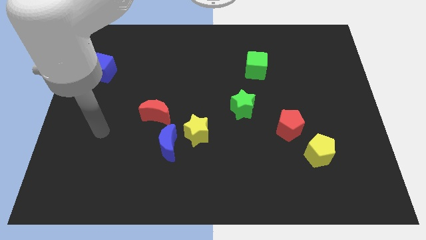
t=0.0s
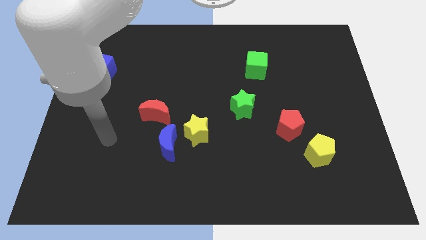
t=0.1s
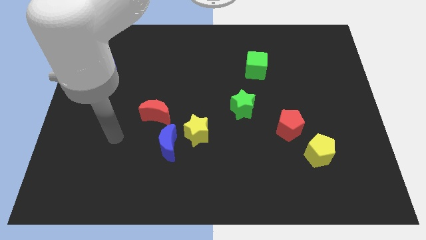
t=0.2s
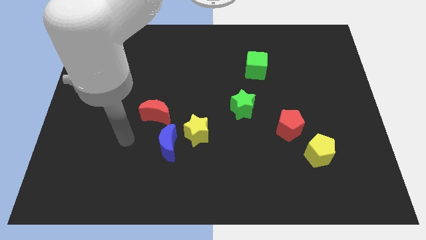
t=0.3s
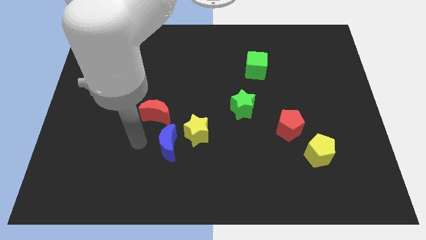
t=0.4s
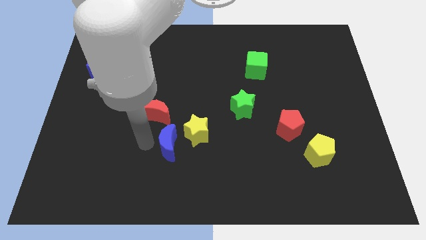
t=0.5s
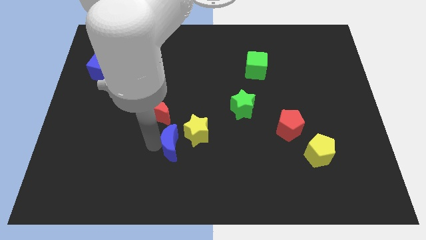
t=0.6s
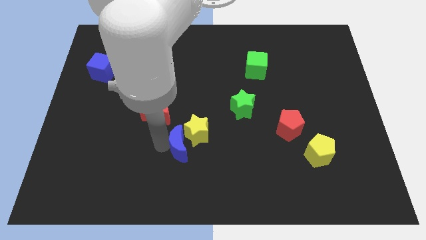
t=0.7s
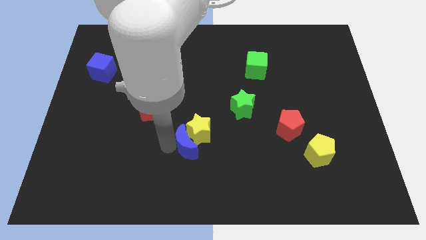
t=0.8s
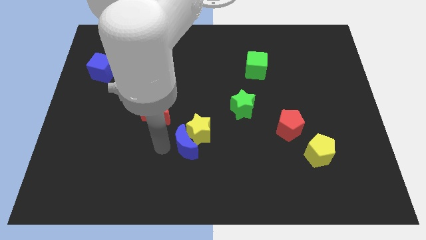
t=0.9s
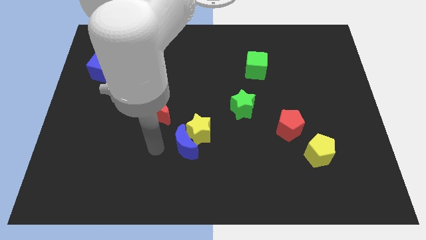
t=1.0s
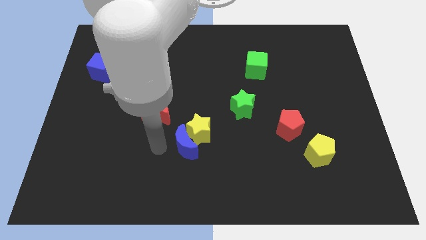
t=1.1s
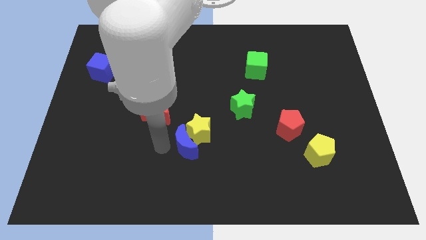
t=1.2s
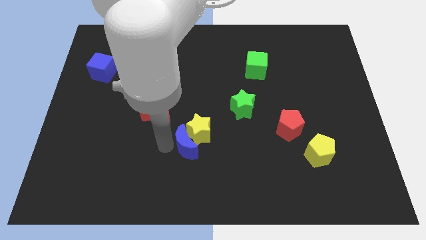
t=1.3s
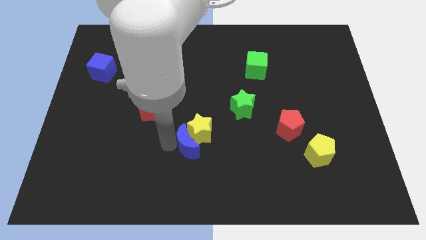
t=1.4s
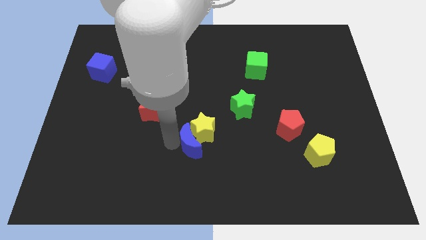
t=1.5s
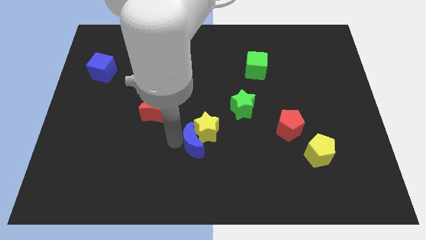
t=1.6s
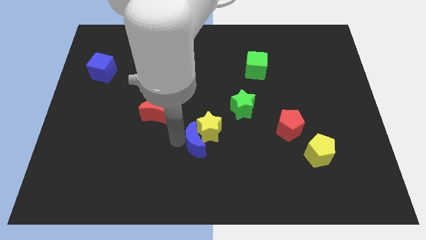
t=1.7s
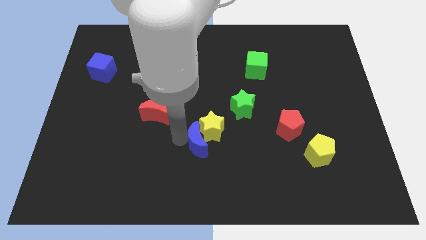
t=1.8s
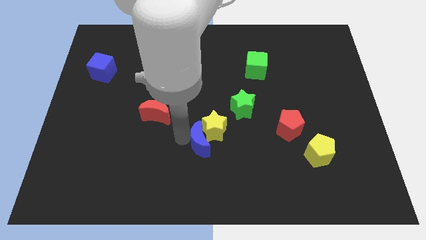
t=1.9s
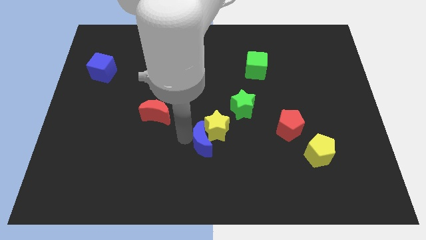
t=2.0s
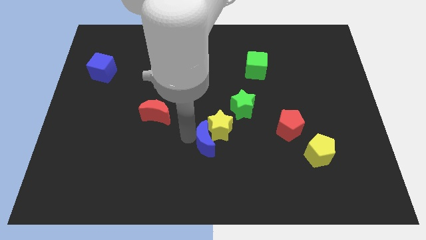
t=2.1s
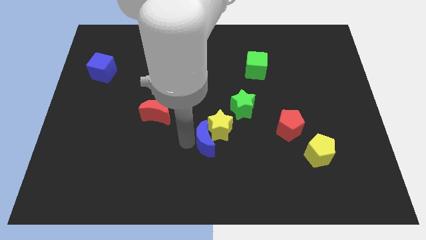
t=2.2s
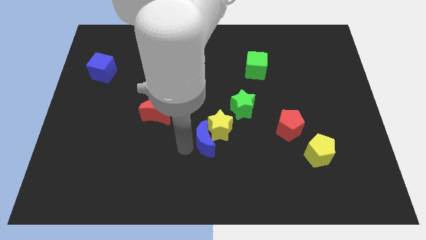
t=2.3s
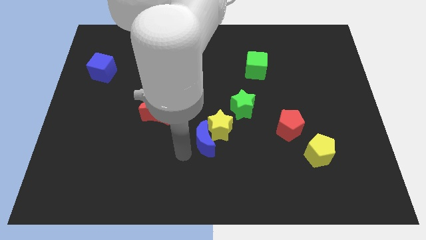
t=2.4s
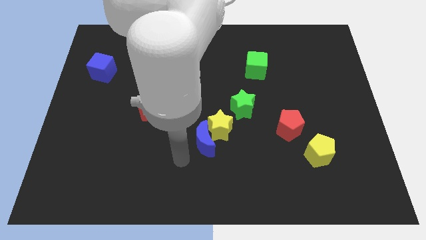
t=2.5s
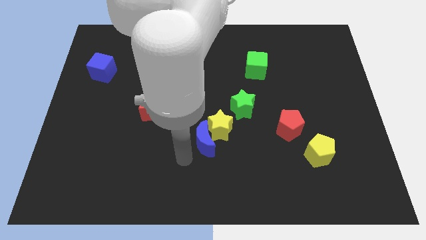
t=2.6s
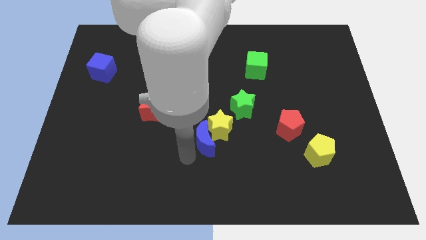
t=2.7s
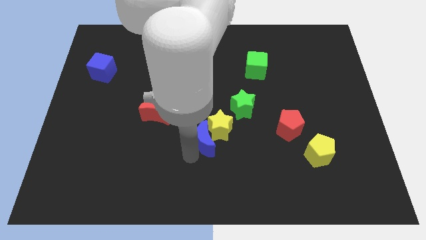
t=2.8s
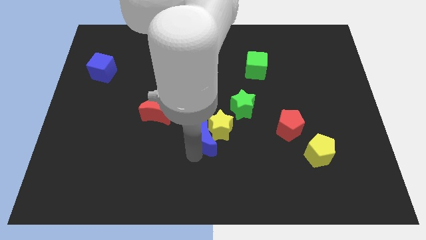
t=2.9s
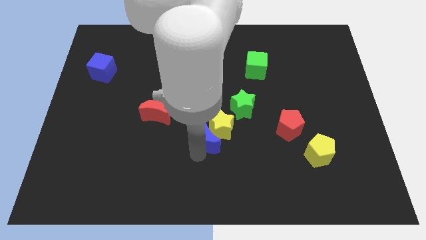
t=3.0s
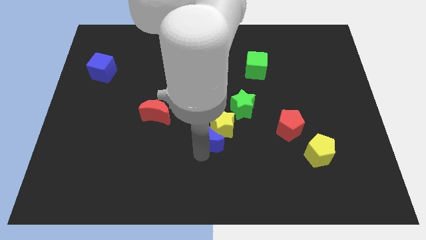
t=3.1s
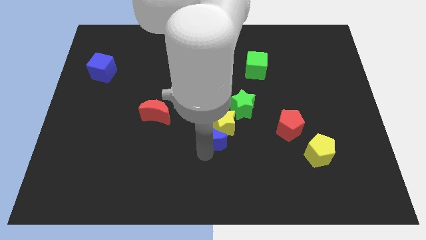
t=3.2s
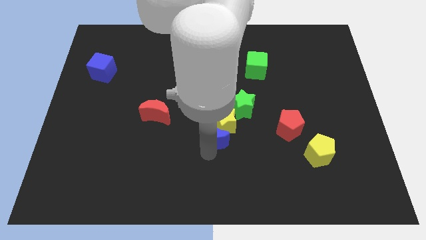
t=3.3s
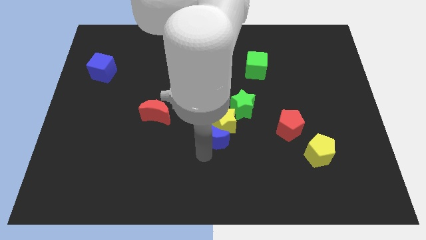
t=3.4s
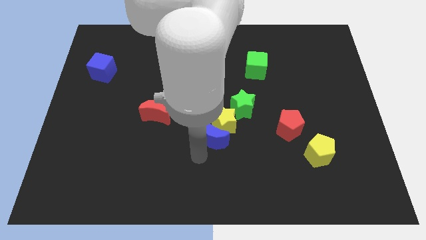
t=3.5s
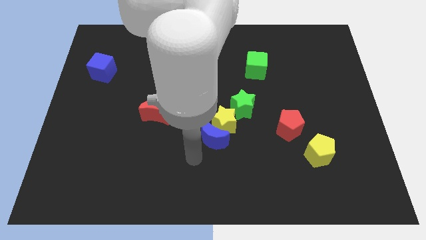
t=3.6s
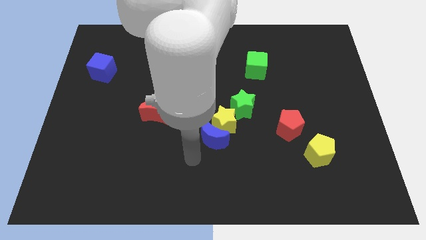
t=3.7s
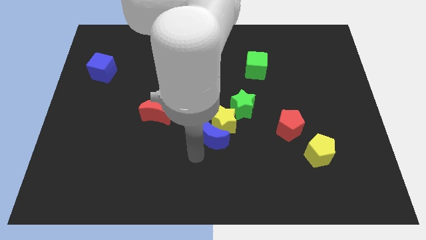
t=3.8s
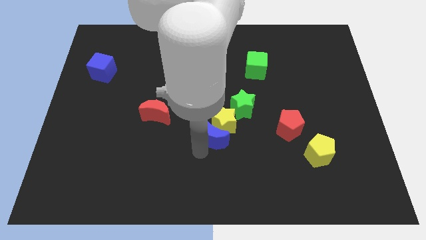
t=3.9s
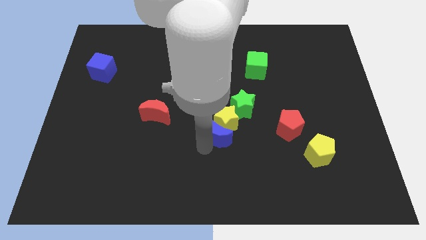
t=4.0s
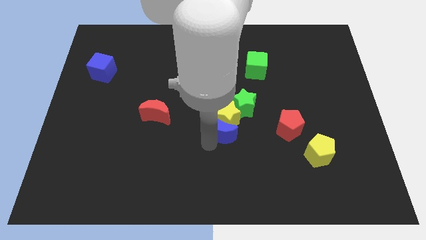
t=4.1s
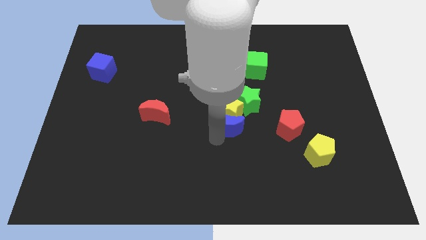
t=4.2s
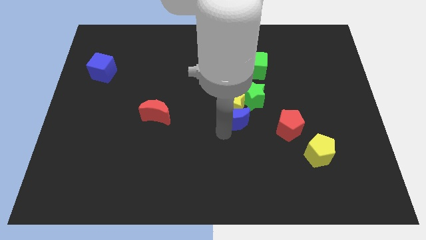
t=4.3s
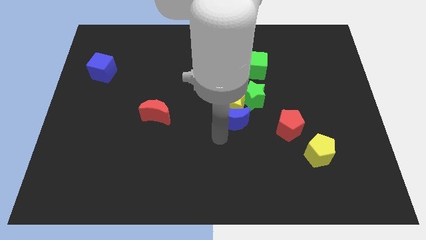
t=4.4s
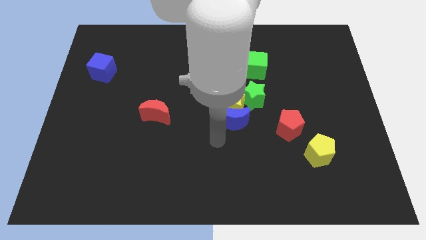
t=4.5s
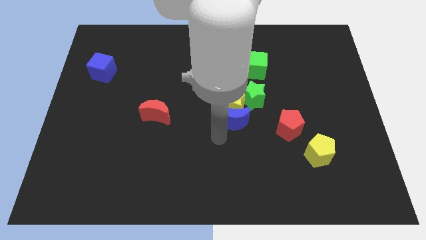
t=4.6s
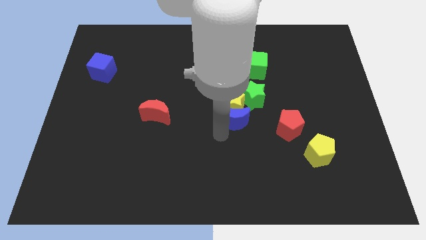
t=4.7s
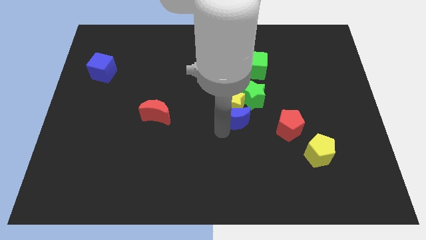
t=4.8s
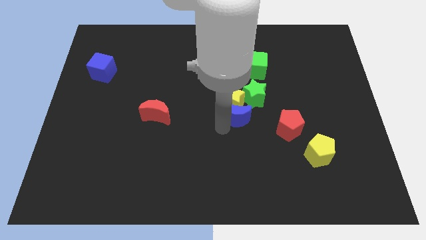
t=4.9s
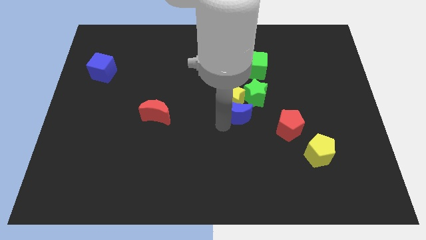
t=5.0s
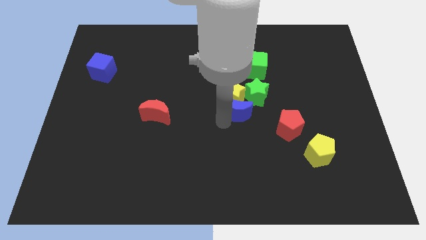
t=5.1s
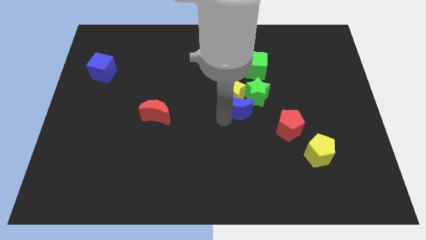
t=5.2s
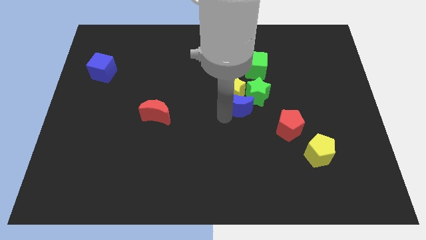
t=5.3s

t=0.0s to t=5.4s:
push the blue moon next to the green star

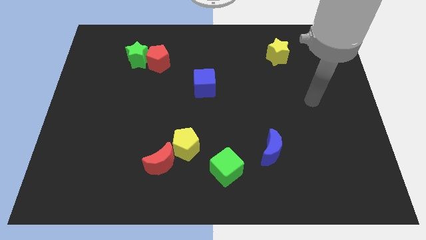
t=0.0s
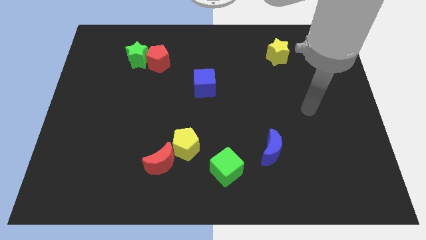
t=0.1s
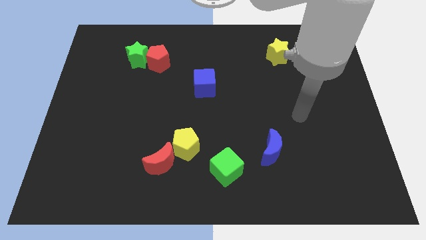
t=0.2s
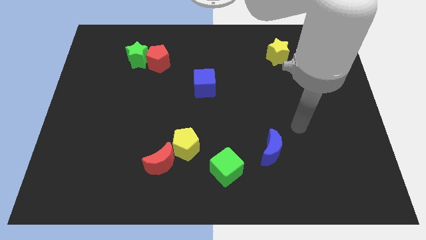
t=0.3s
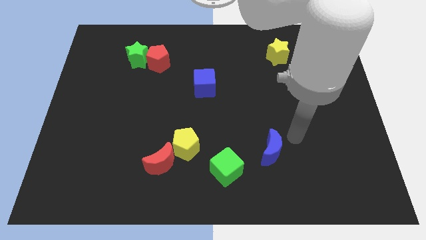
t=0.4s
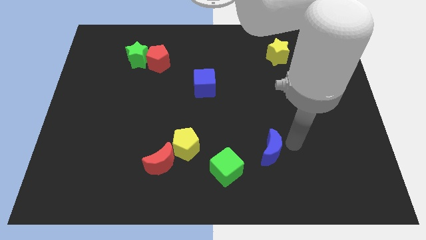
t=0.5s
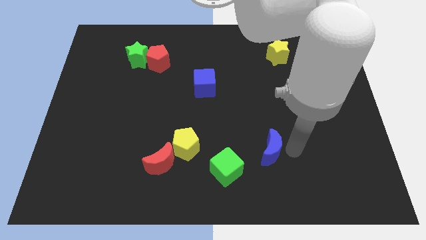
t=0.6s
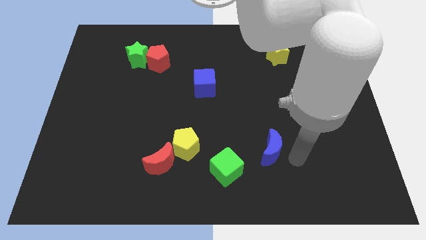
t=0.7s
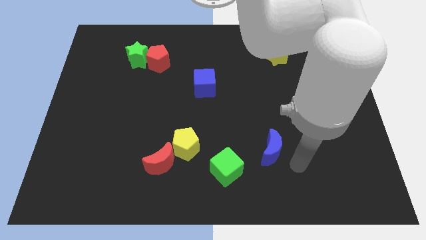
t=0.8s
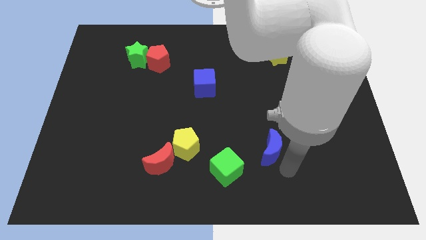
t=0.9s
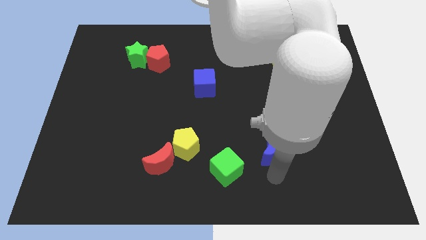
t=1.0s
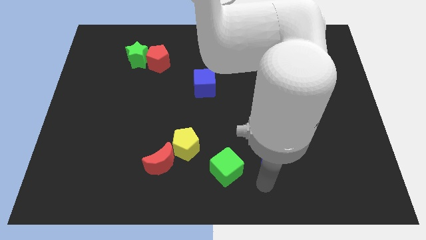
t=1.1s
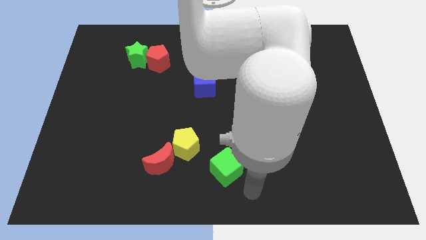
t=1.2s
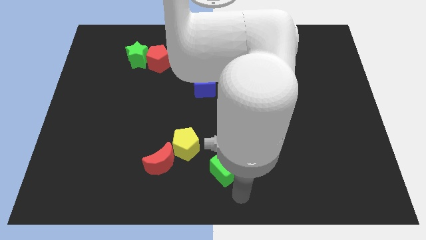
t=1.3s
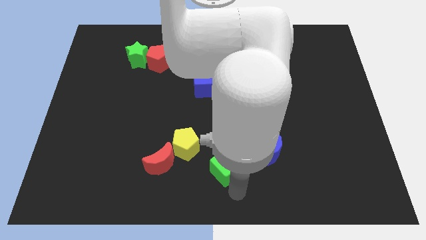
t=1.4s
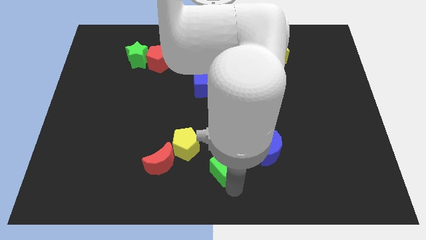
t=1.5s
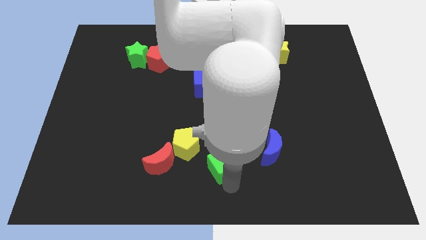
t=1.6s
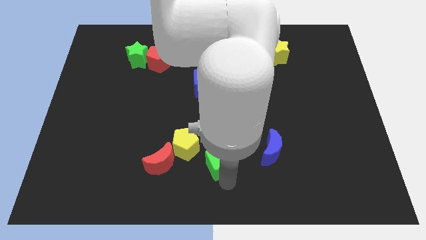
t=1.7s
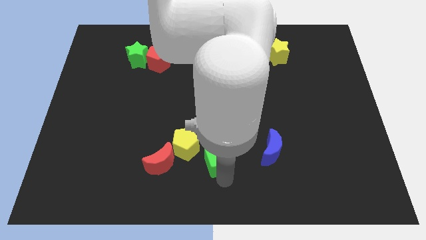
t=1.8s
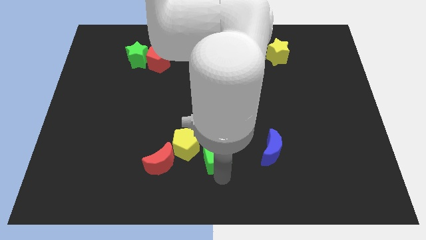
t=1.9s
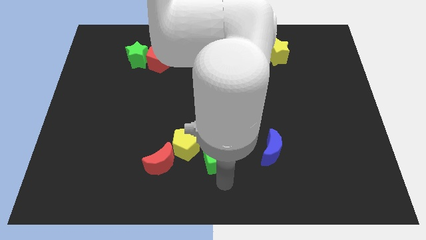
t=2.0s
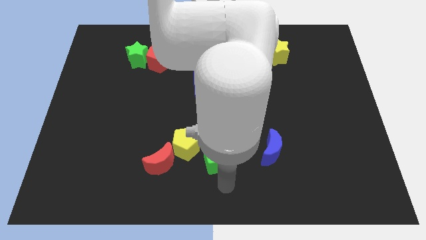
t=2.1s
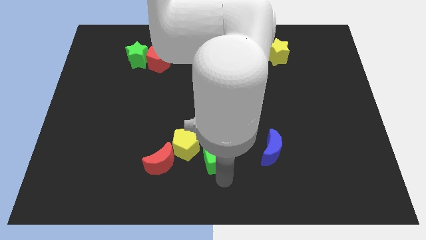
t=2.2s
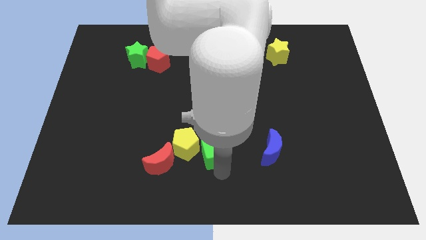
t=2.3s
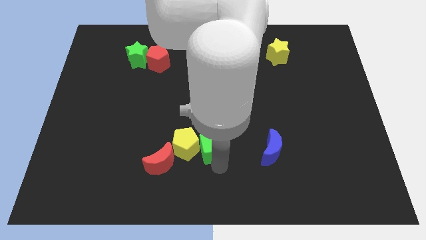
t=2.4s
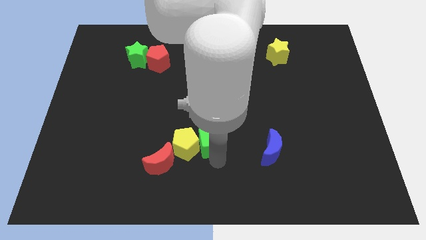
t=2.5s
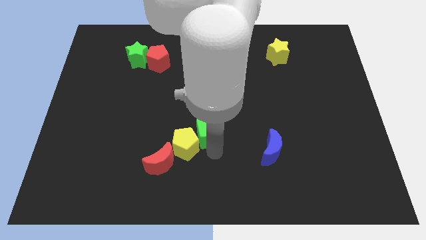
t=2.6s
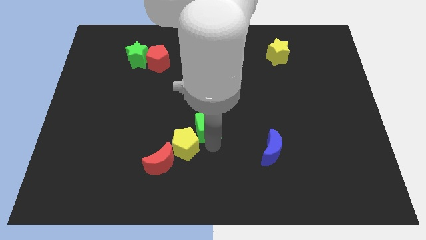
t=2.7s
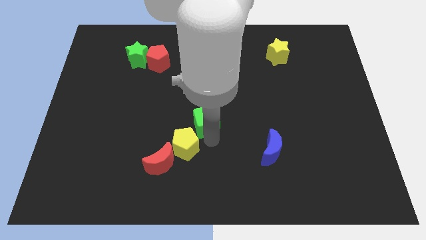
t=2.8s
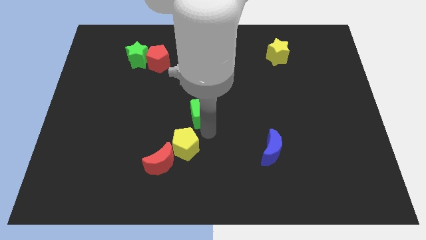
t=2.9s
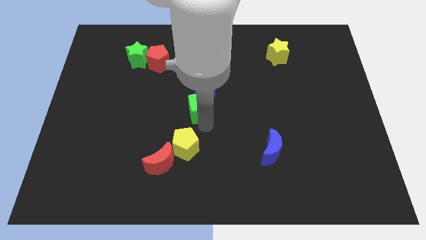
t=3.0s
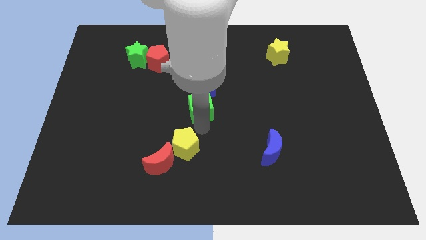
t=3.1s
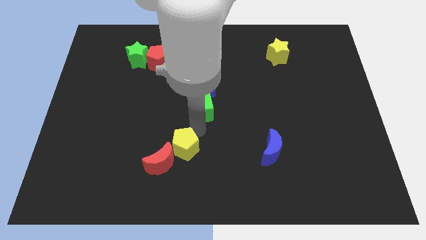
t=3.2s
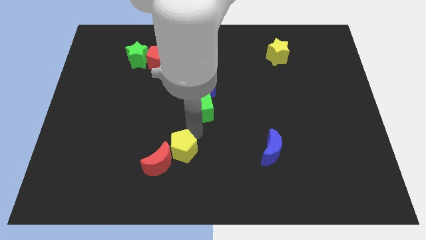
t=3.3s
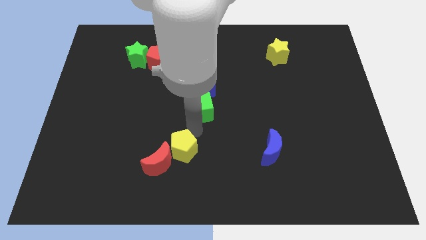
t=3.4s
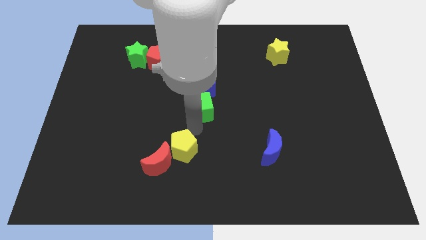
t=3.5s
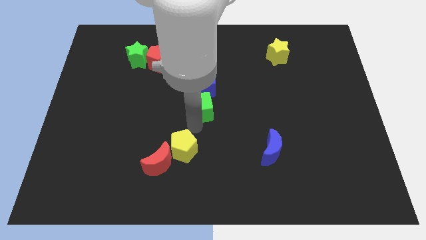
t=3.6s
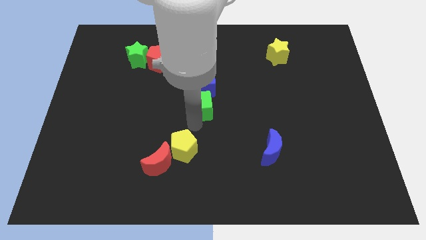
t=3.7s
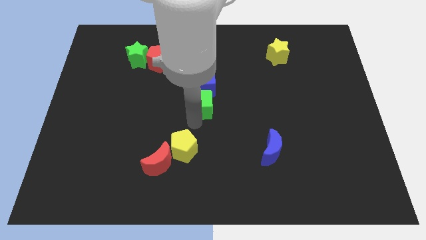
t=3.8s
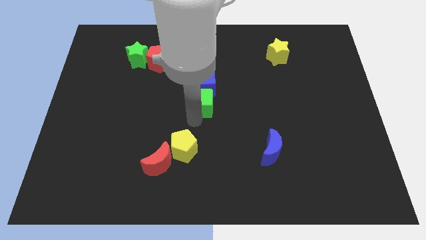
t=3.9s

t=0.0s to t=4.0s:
push the green cube towards the blue cube
